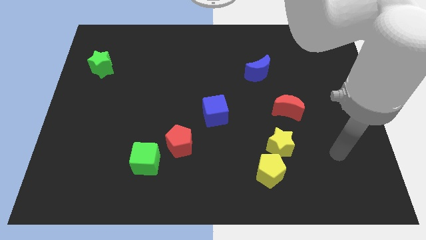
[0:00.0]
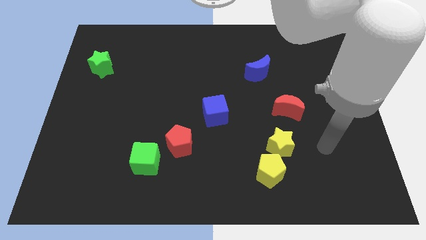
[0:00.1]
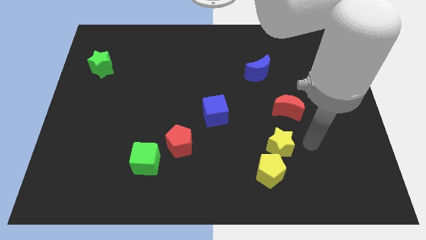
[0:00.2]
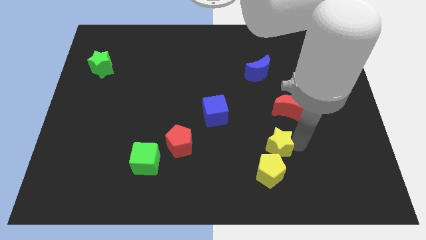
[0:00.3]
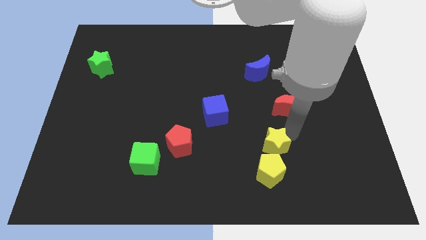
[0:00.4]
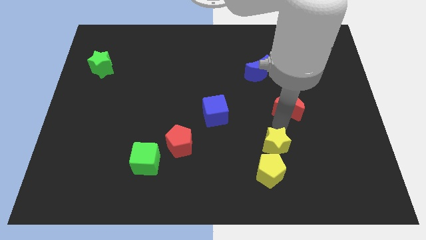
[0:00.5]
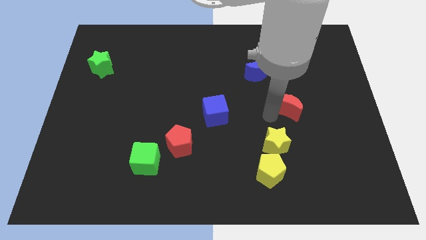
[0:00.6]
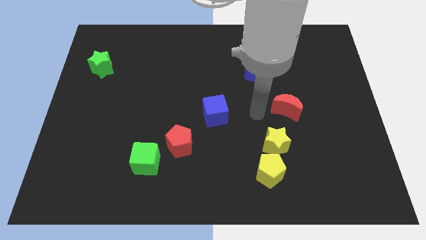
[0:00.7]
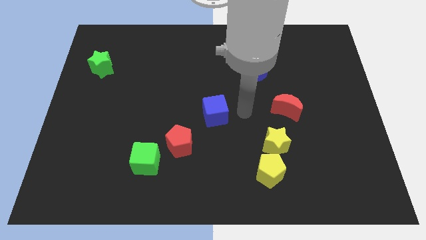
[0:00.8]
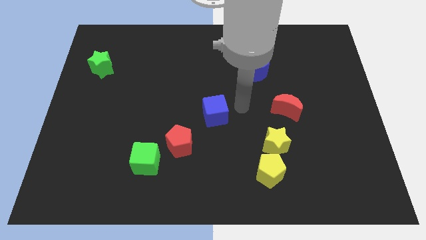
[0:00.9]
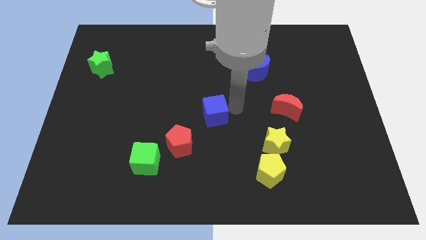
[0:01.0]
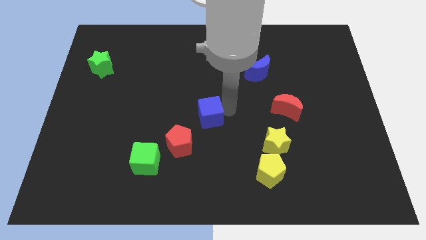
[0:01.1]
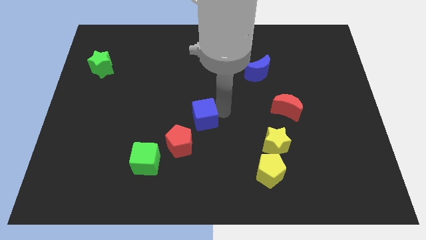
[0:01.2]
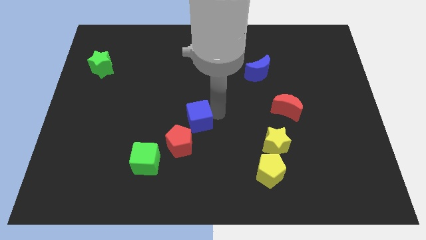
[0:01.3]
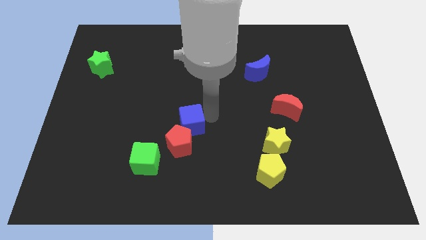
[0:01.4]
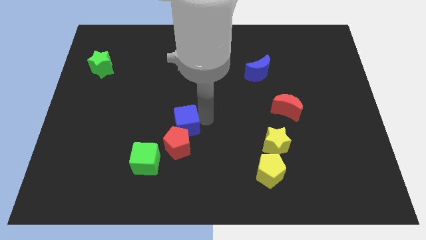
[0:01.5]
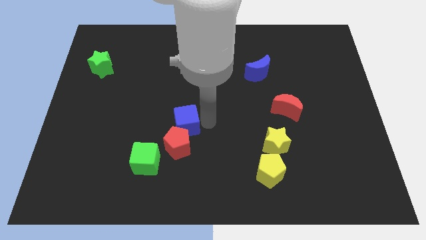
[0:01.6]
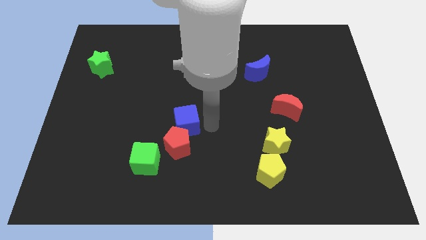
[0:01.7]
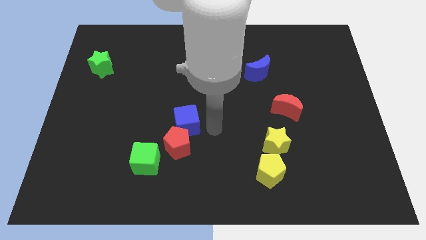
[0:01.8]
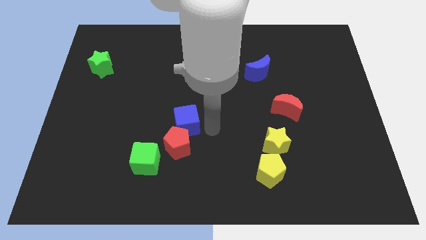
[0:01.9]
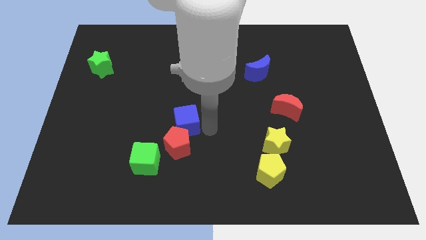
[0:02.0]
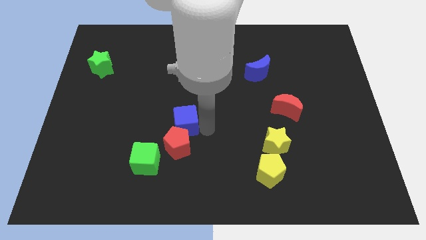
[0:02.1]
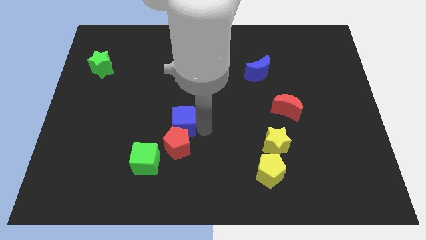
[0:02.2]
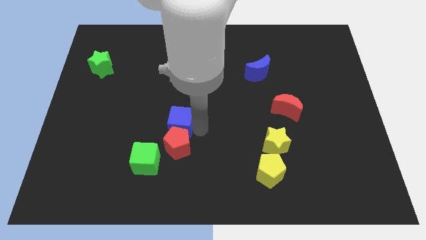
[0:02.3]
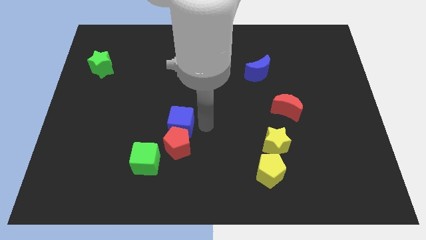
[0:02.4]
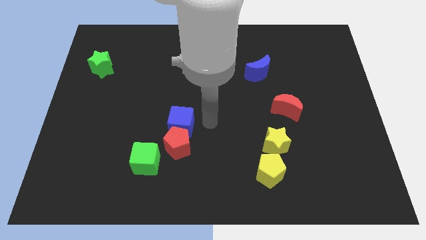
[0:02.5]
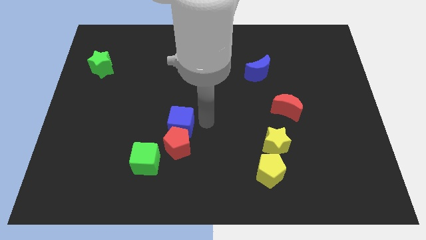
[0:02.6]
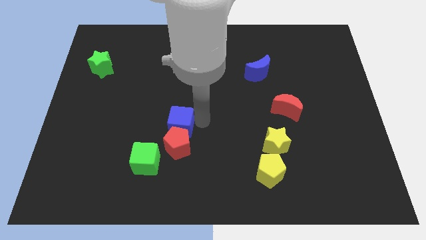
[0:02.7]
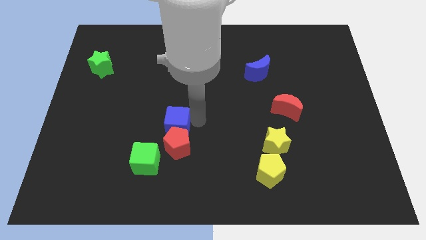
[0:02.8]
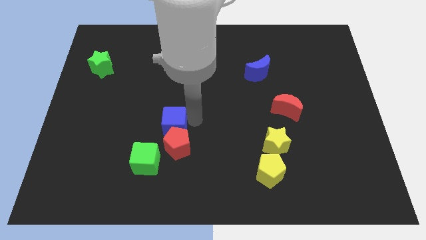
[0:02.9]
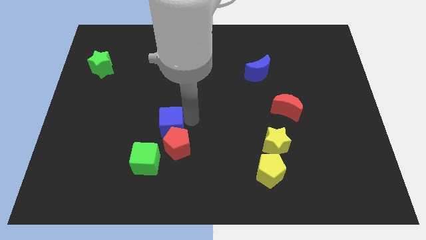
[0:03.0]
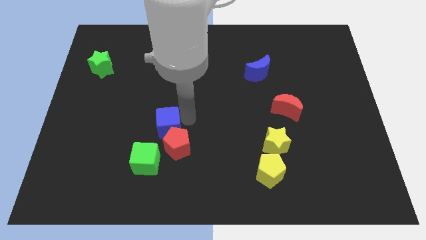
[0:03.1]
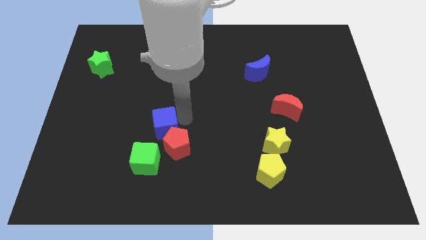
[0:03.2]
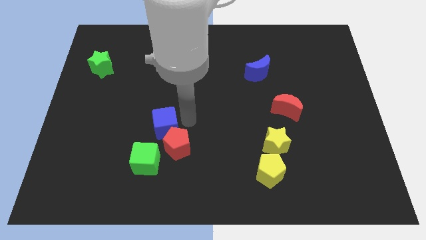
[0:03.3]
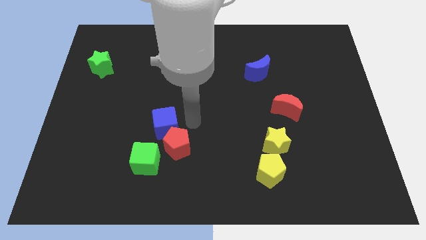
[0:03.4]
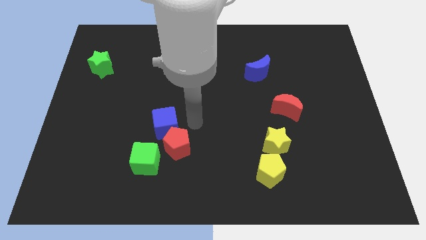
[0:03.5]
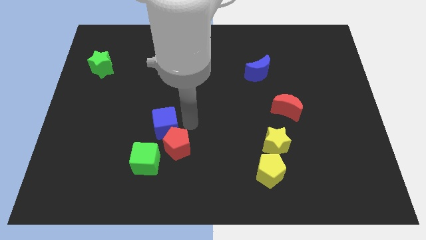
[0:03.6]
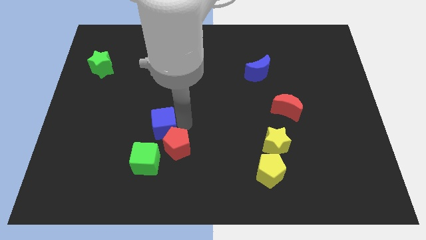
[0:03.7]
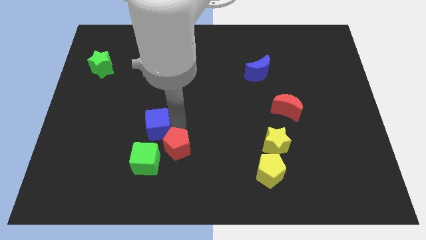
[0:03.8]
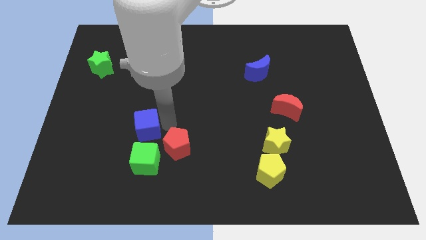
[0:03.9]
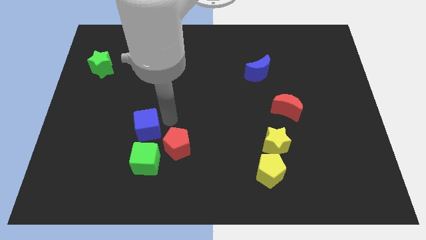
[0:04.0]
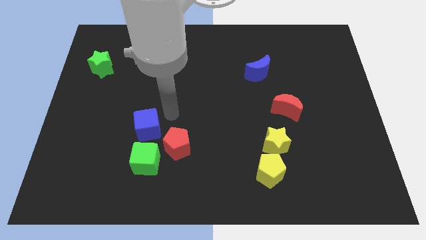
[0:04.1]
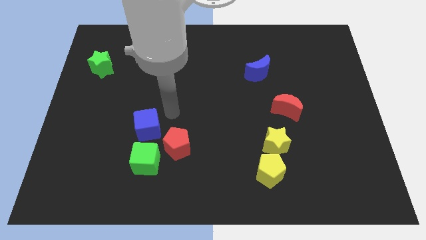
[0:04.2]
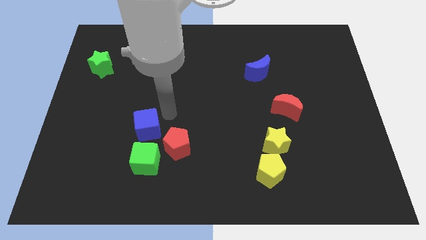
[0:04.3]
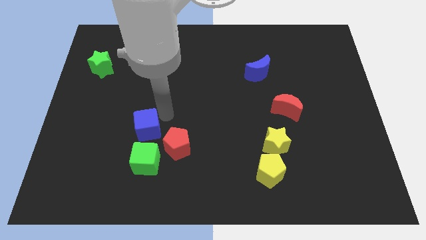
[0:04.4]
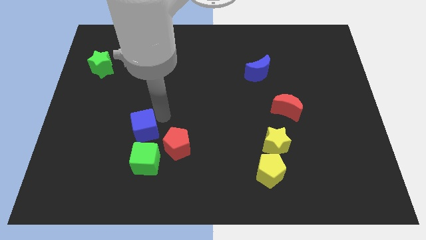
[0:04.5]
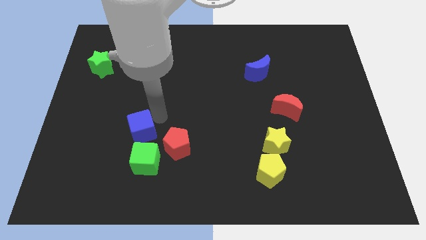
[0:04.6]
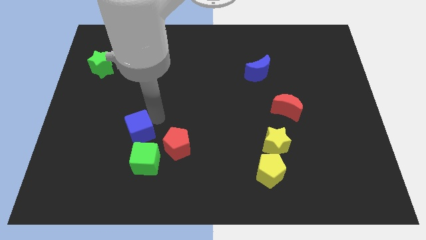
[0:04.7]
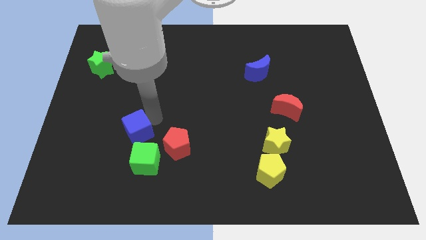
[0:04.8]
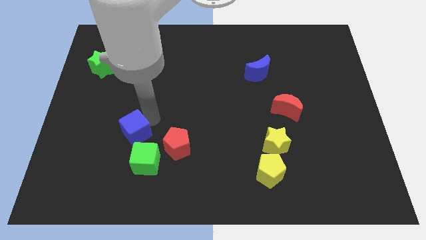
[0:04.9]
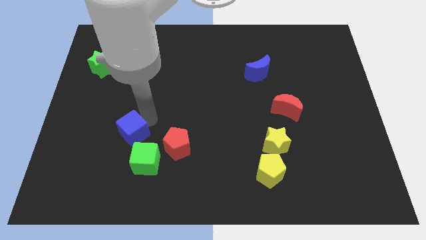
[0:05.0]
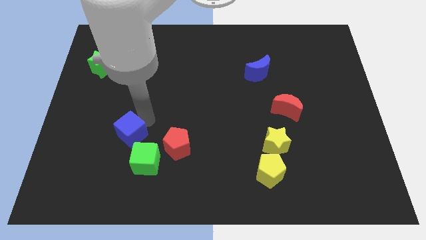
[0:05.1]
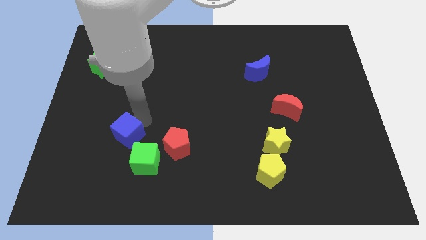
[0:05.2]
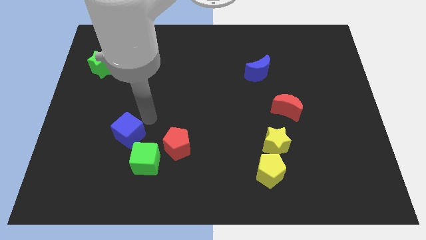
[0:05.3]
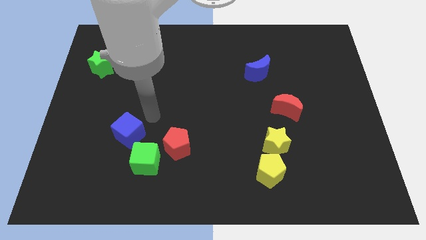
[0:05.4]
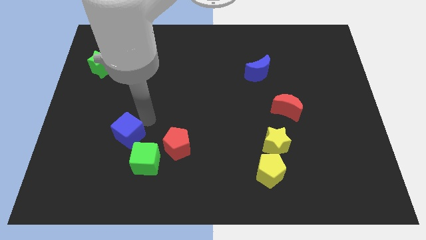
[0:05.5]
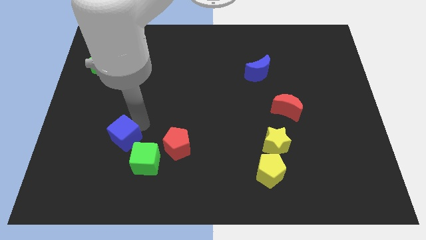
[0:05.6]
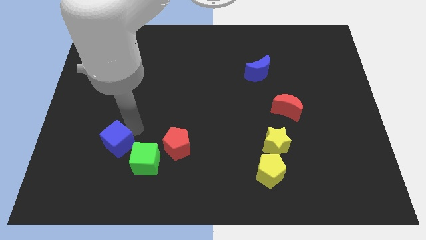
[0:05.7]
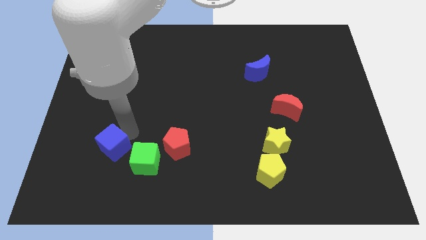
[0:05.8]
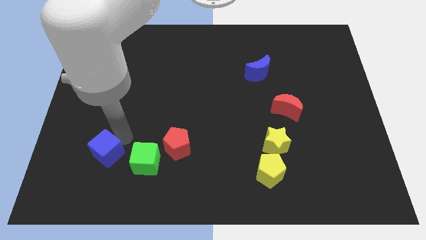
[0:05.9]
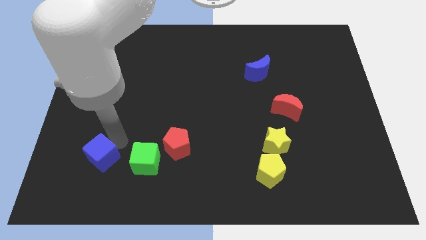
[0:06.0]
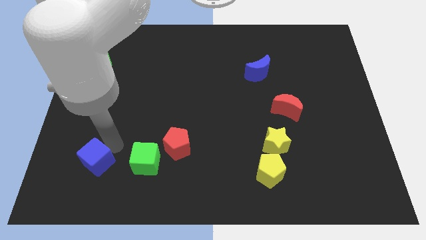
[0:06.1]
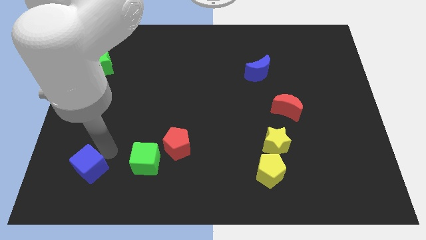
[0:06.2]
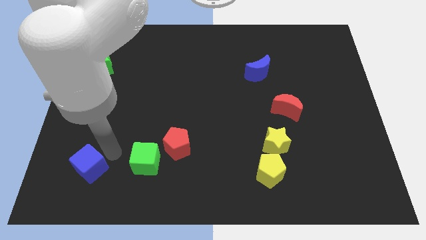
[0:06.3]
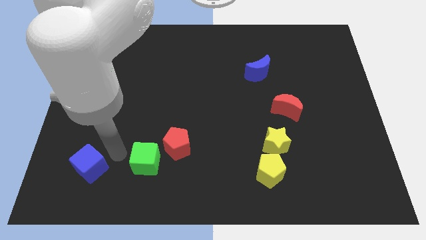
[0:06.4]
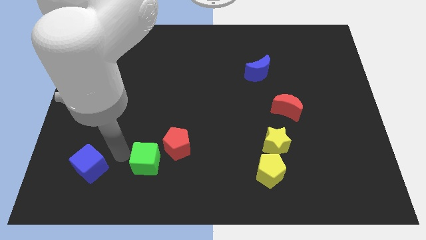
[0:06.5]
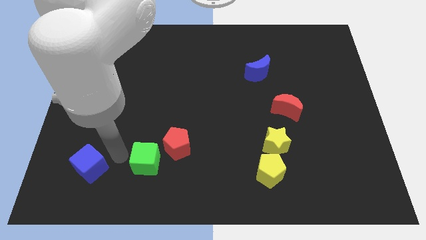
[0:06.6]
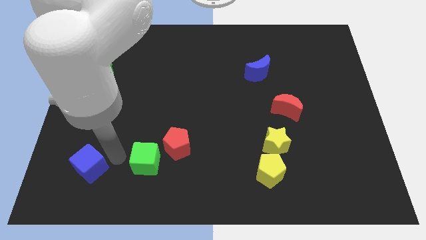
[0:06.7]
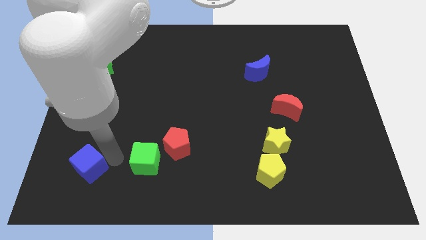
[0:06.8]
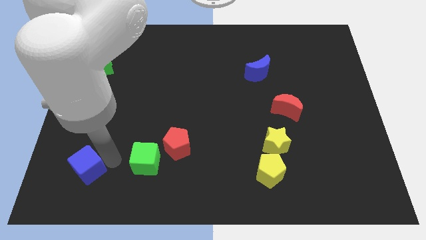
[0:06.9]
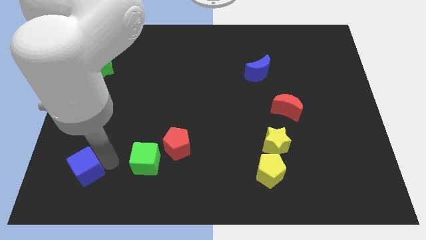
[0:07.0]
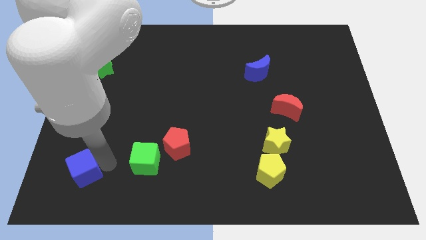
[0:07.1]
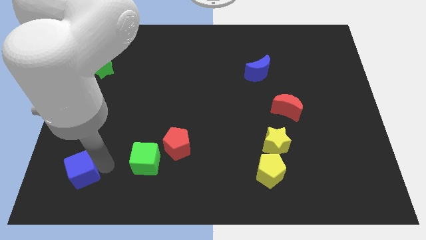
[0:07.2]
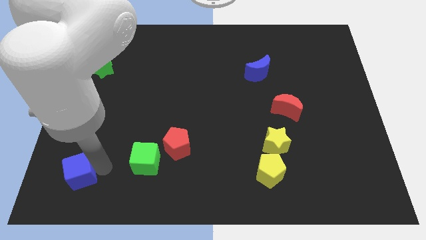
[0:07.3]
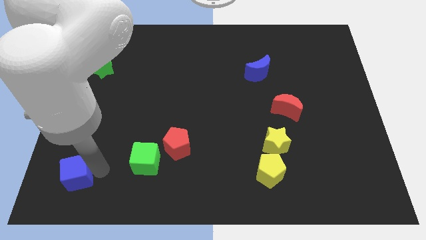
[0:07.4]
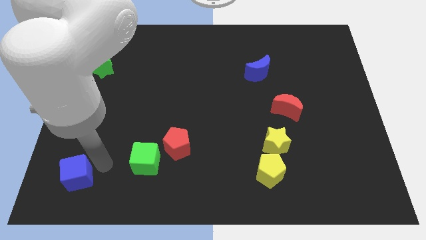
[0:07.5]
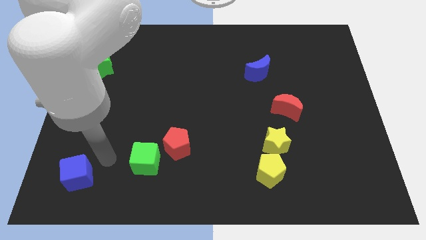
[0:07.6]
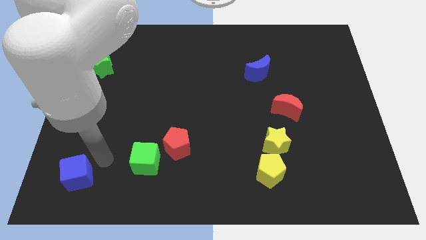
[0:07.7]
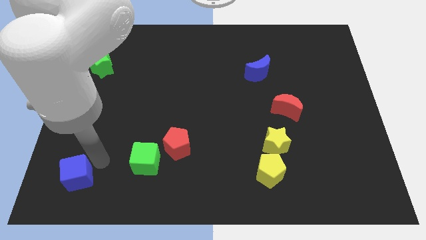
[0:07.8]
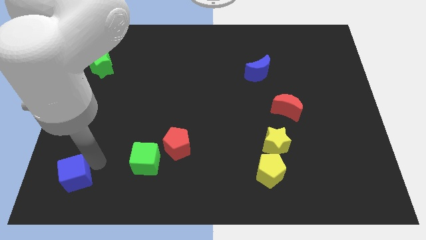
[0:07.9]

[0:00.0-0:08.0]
push the blue cube to the bottom left of the board
